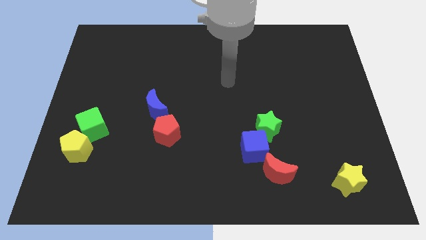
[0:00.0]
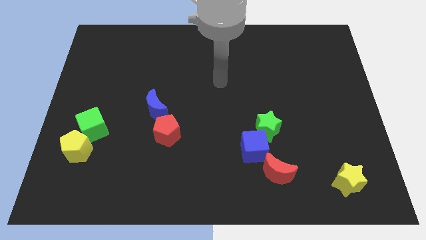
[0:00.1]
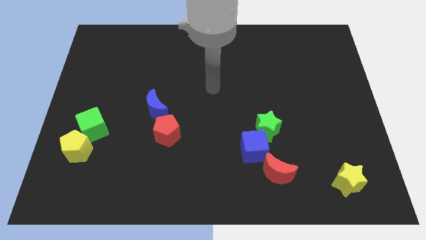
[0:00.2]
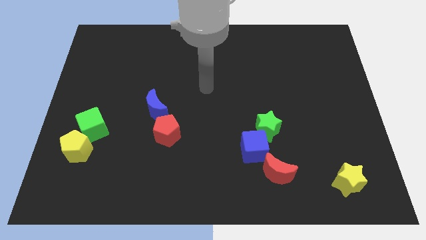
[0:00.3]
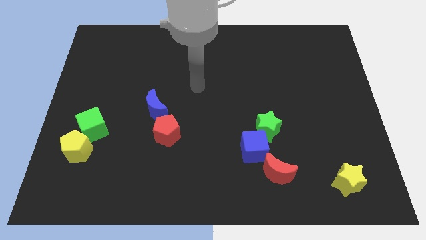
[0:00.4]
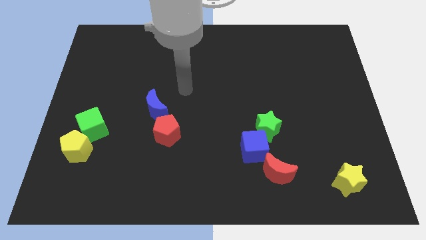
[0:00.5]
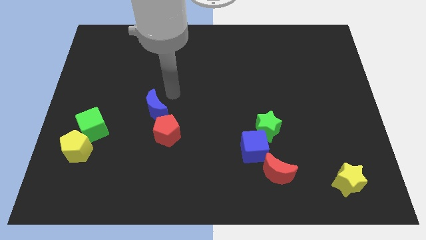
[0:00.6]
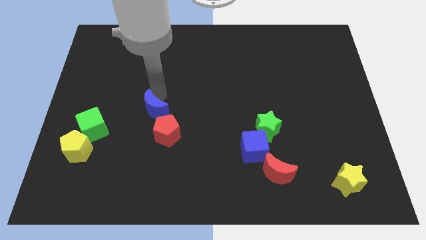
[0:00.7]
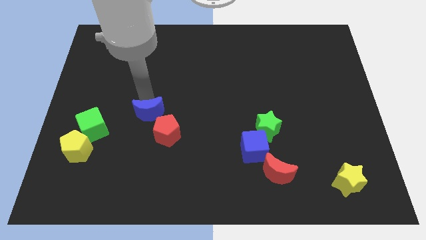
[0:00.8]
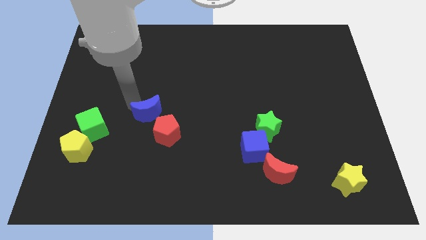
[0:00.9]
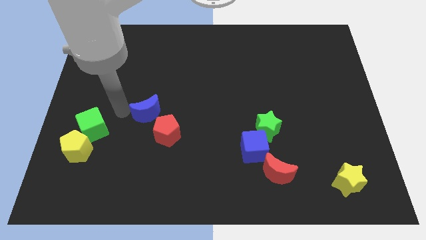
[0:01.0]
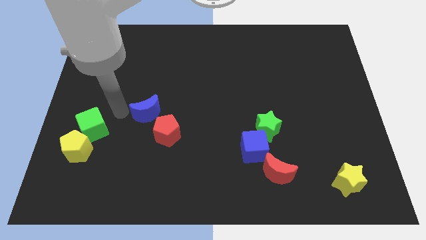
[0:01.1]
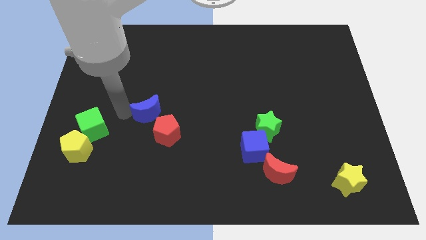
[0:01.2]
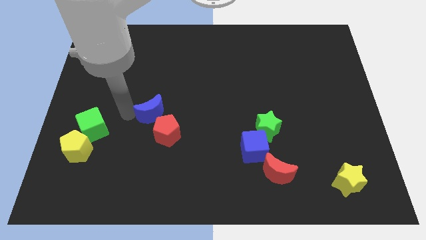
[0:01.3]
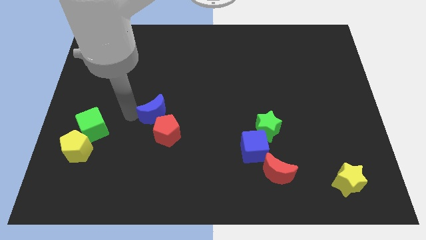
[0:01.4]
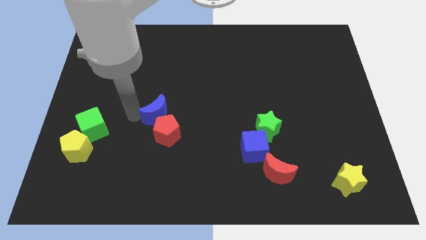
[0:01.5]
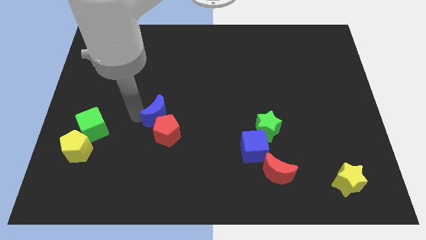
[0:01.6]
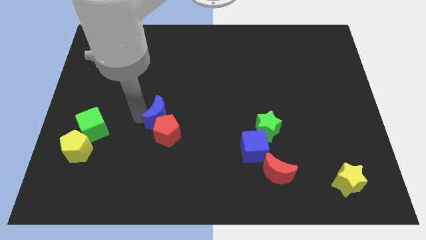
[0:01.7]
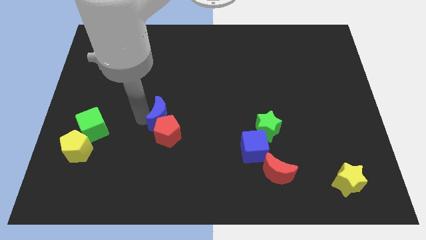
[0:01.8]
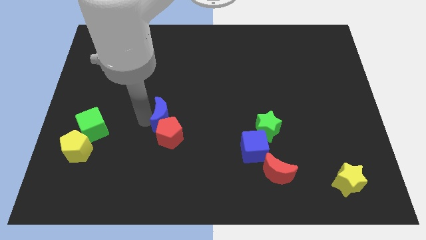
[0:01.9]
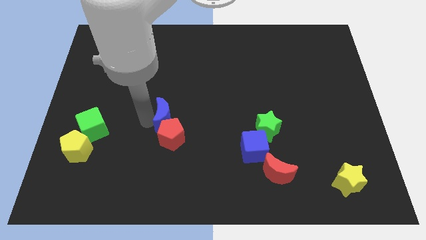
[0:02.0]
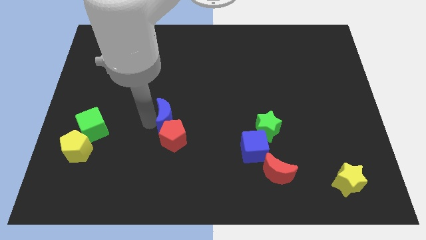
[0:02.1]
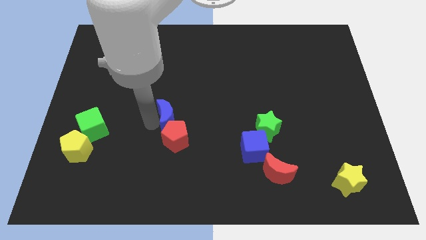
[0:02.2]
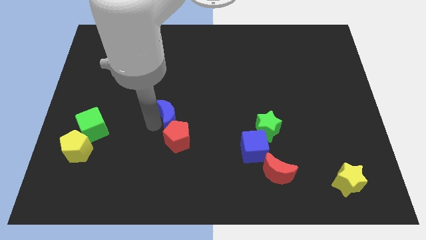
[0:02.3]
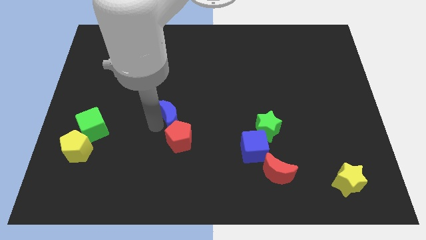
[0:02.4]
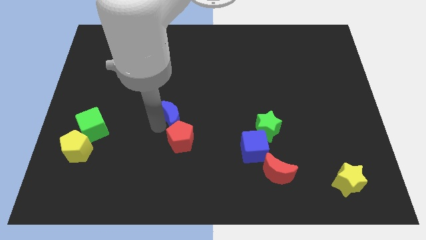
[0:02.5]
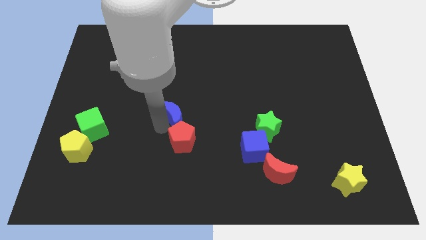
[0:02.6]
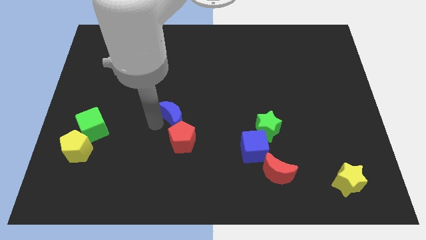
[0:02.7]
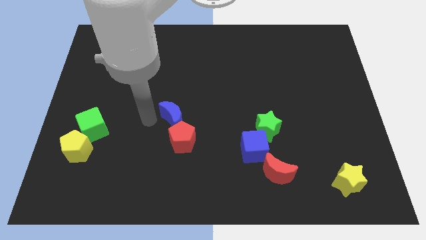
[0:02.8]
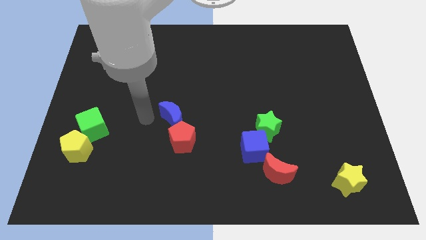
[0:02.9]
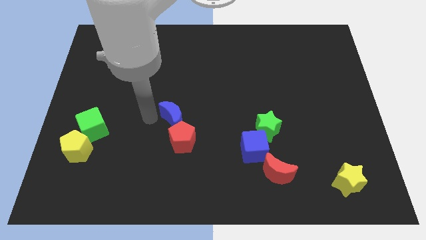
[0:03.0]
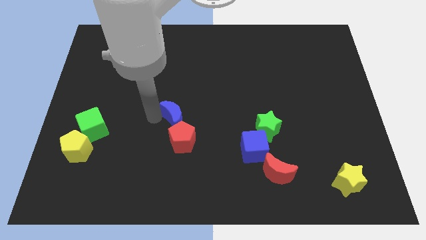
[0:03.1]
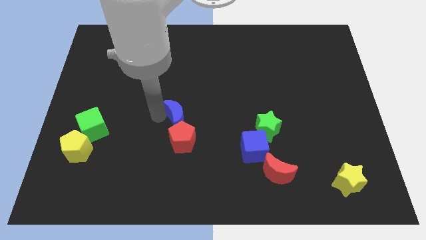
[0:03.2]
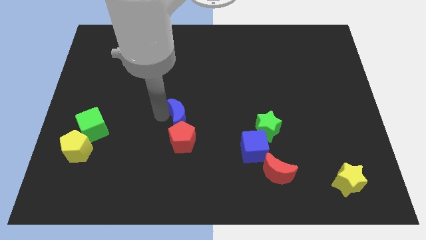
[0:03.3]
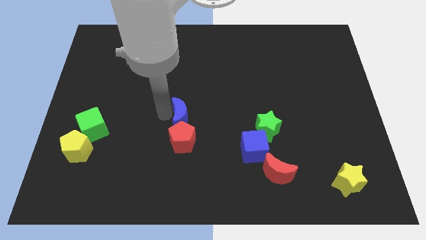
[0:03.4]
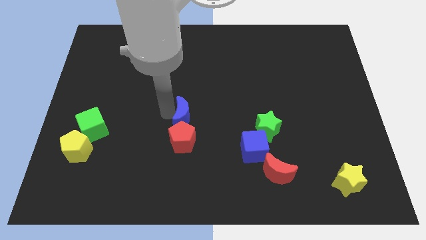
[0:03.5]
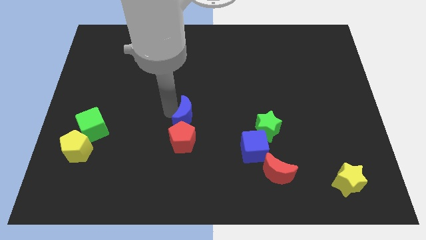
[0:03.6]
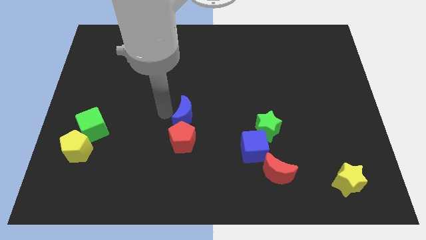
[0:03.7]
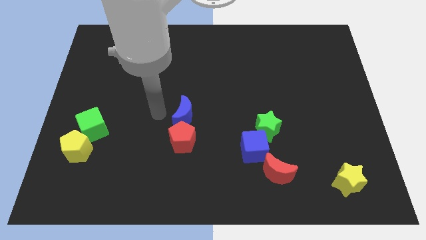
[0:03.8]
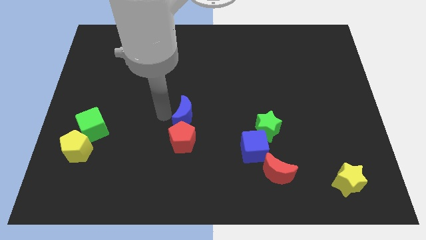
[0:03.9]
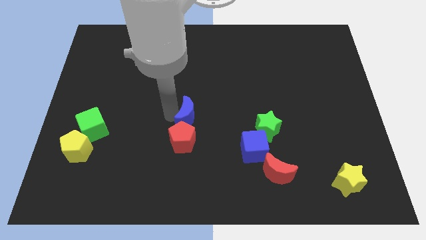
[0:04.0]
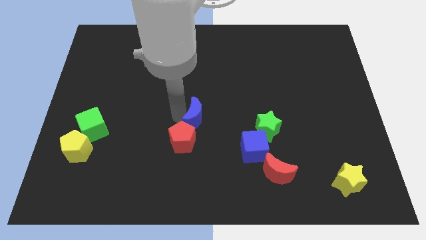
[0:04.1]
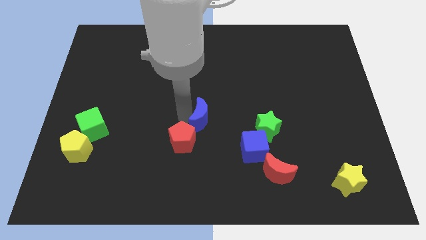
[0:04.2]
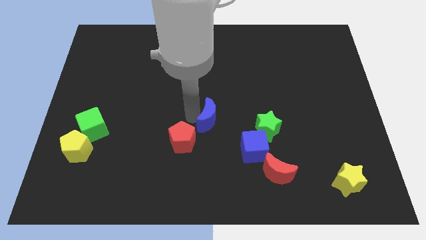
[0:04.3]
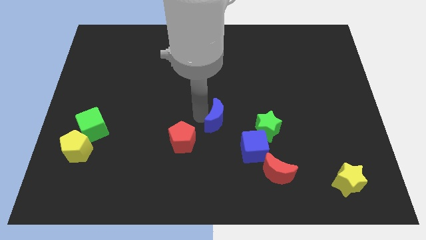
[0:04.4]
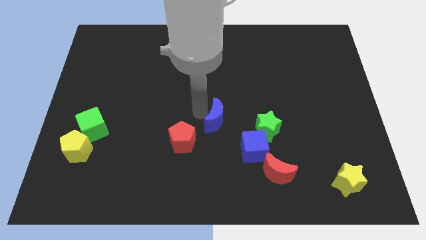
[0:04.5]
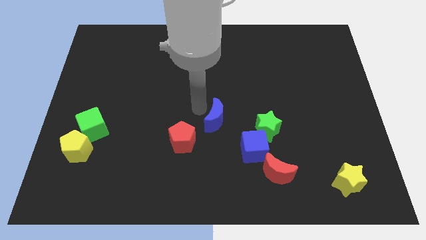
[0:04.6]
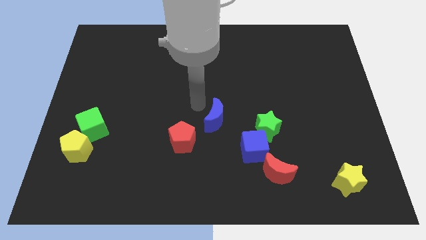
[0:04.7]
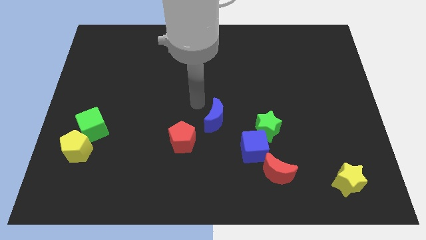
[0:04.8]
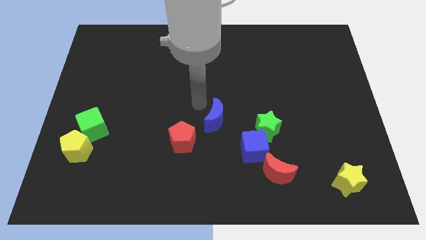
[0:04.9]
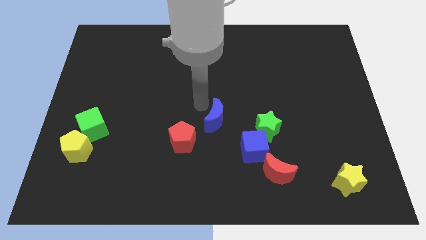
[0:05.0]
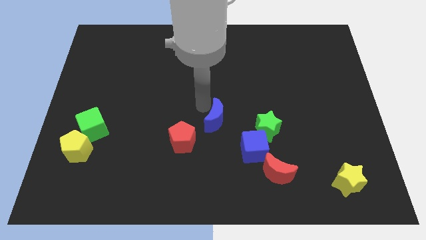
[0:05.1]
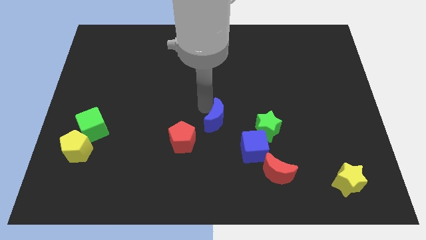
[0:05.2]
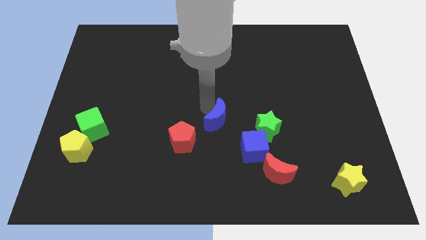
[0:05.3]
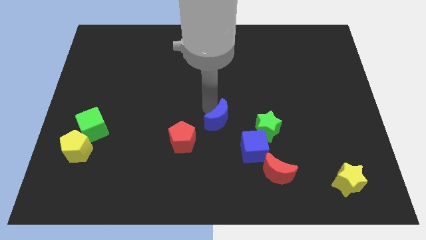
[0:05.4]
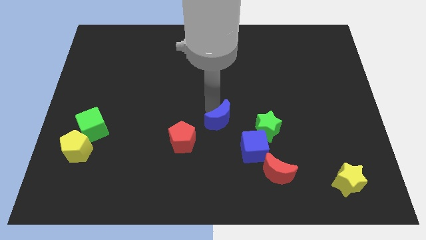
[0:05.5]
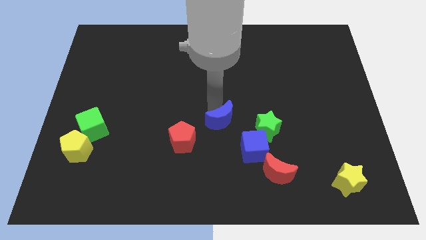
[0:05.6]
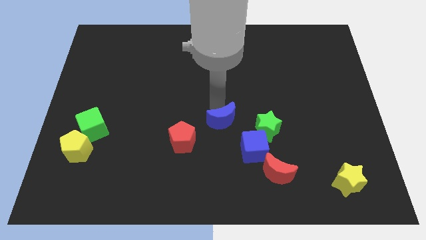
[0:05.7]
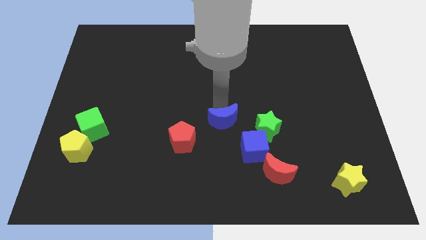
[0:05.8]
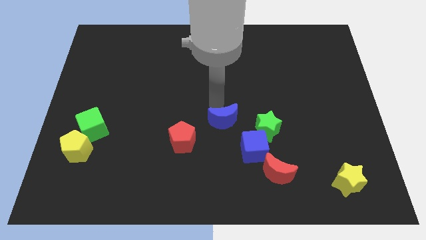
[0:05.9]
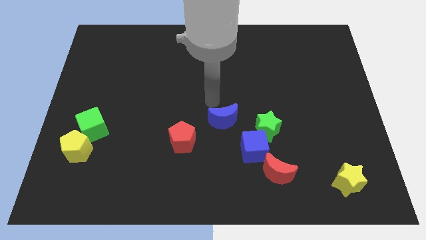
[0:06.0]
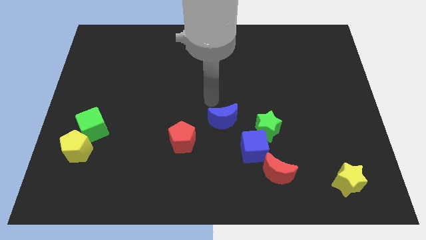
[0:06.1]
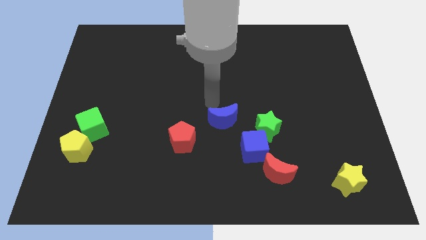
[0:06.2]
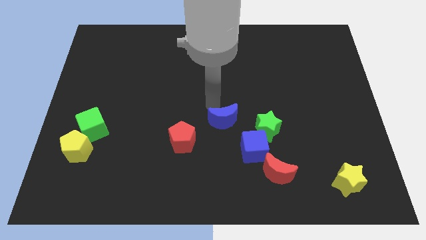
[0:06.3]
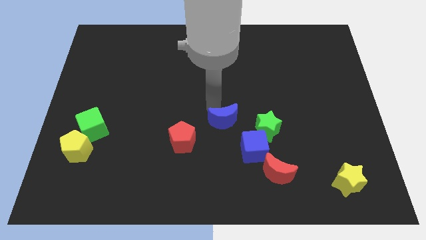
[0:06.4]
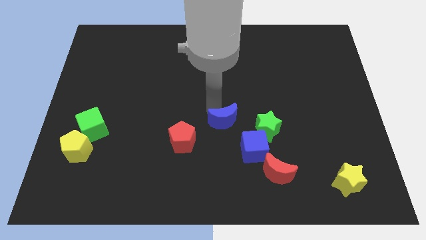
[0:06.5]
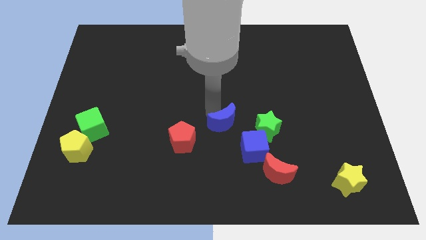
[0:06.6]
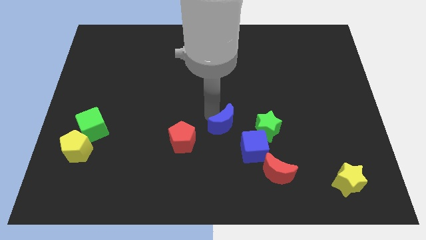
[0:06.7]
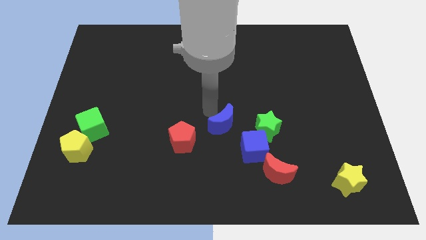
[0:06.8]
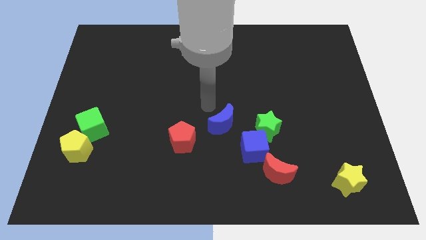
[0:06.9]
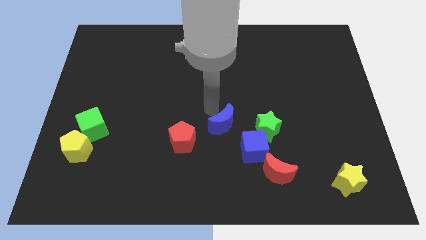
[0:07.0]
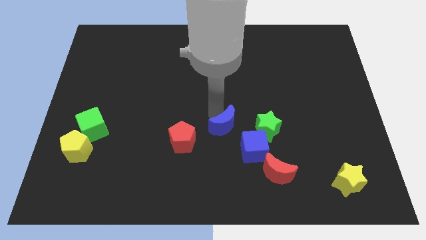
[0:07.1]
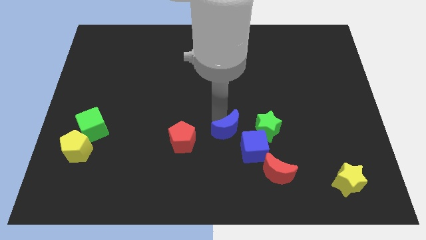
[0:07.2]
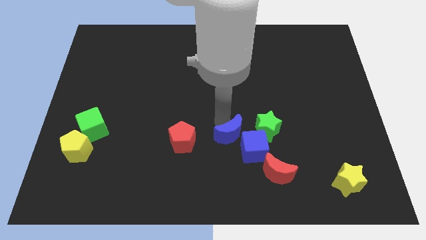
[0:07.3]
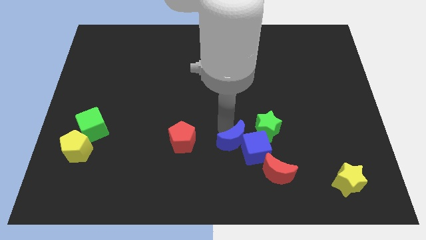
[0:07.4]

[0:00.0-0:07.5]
slide the blue moon to the top left of the red moon
